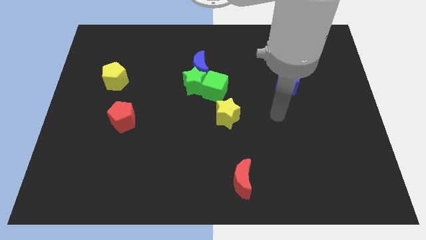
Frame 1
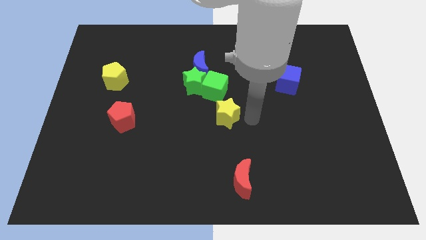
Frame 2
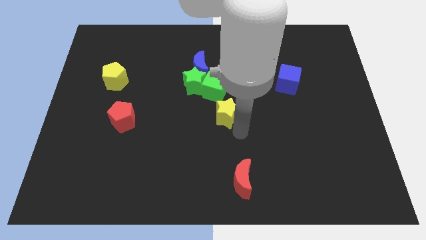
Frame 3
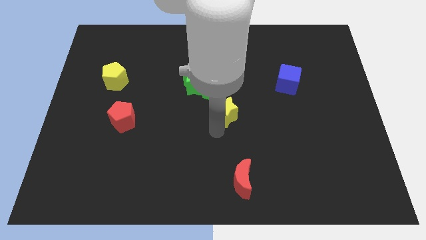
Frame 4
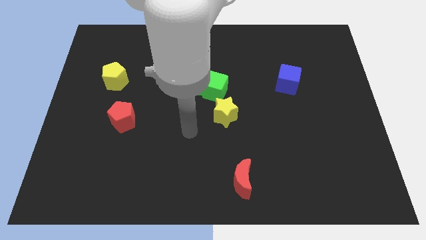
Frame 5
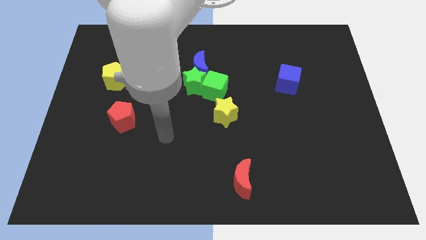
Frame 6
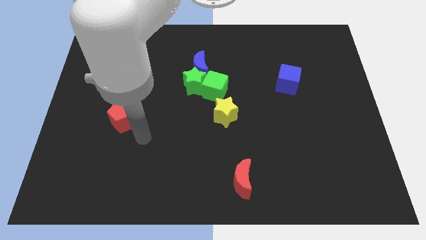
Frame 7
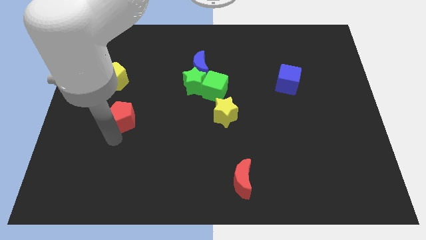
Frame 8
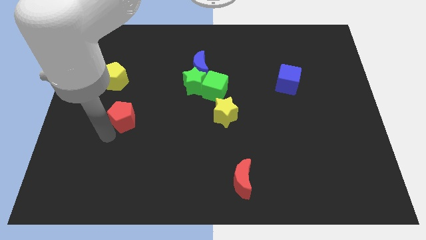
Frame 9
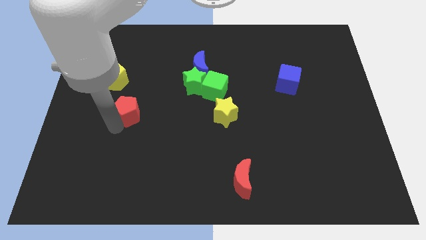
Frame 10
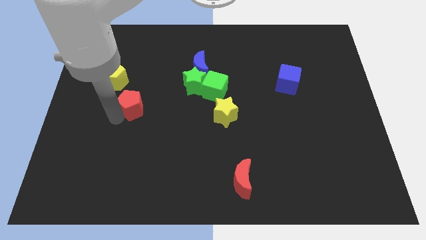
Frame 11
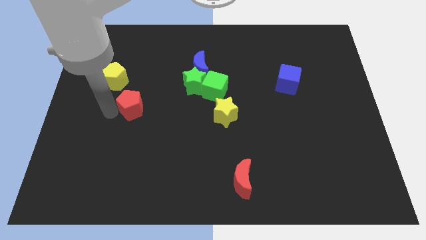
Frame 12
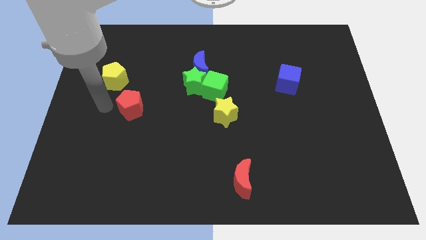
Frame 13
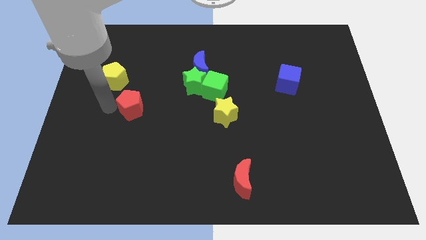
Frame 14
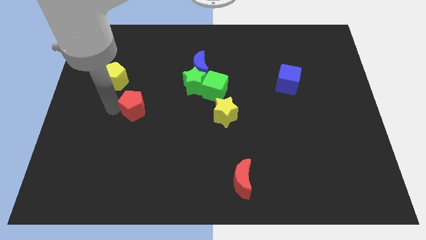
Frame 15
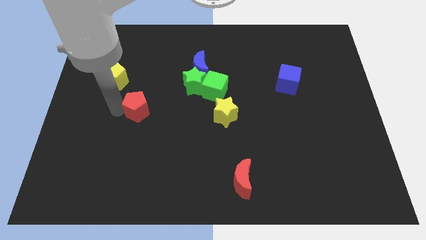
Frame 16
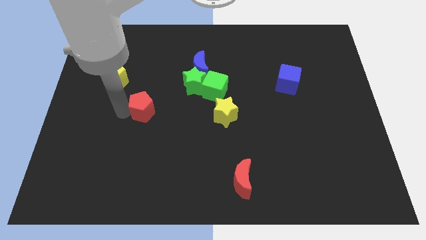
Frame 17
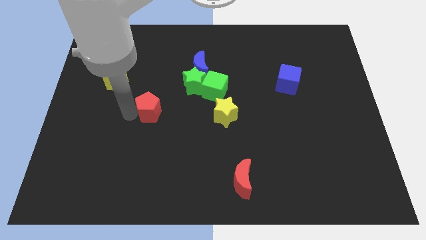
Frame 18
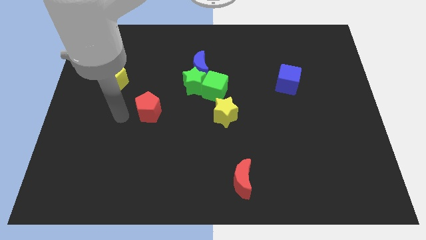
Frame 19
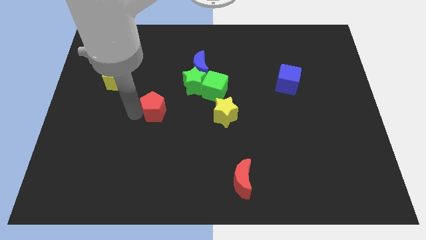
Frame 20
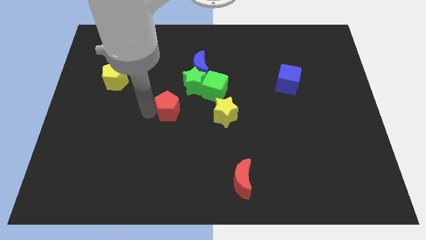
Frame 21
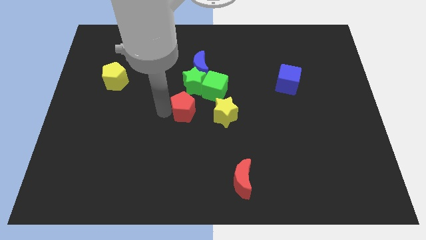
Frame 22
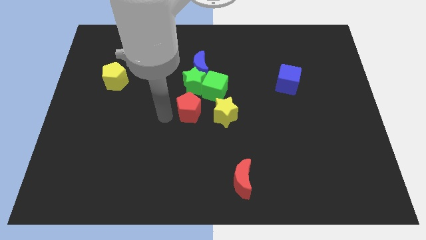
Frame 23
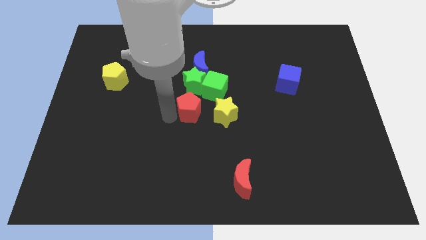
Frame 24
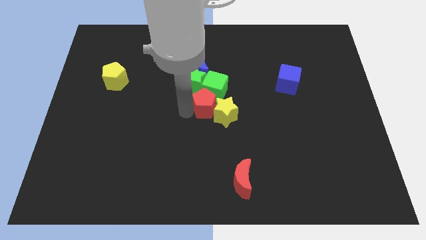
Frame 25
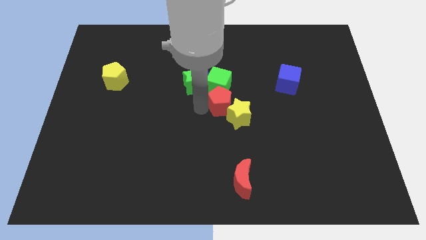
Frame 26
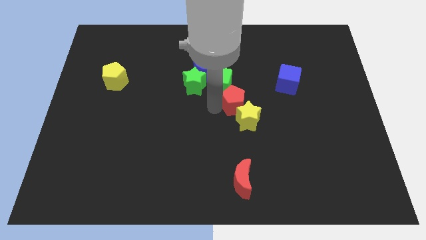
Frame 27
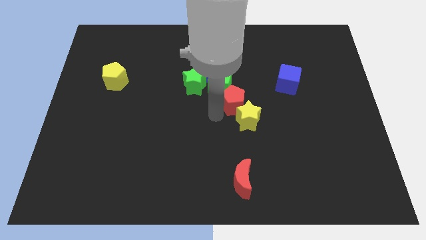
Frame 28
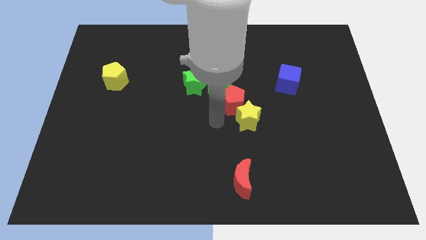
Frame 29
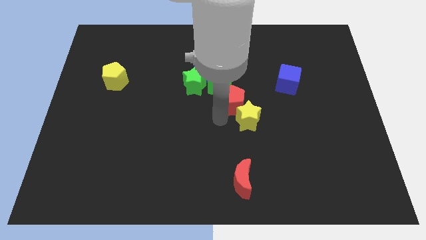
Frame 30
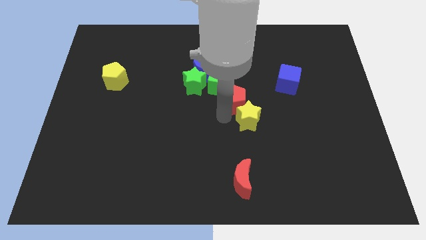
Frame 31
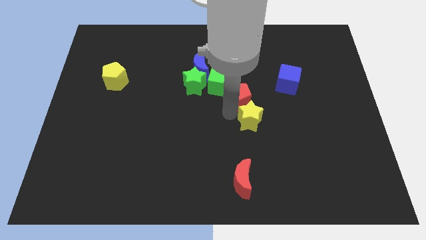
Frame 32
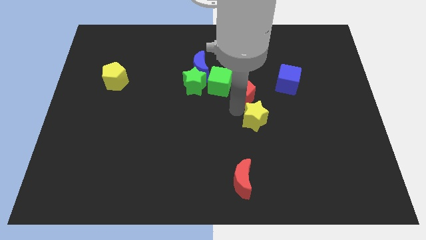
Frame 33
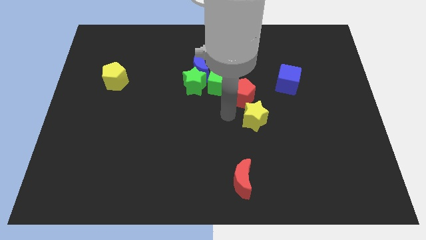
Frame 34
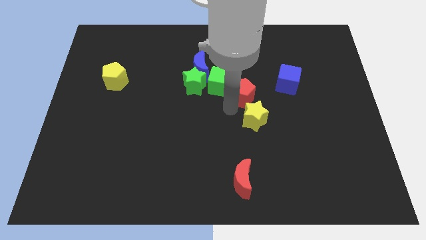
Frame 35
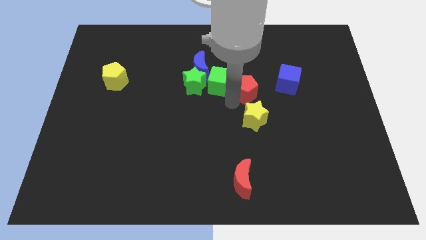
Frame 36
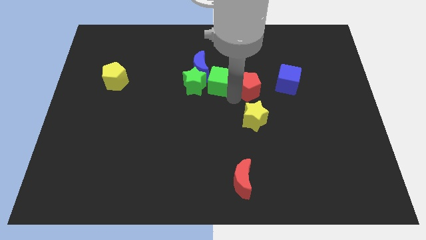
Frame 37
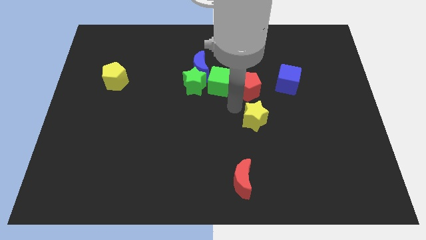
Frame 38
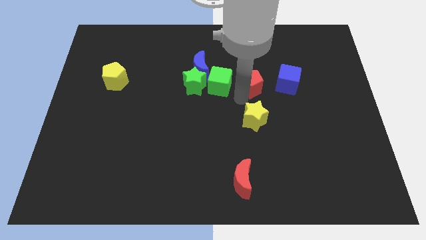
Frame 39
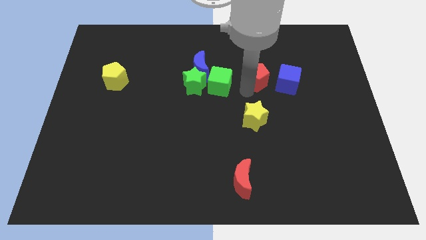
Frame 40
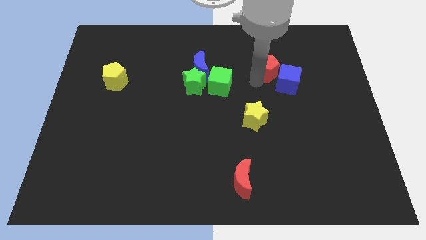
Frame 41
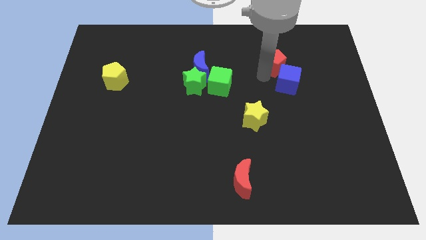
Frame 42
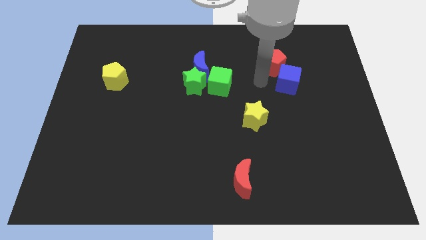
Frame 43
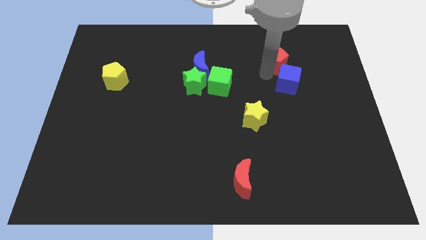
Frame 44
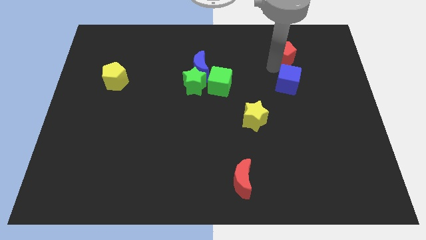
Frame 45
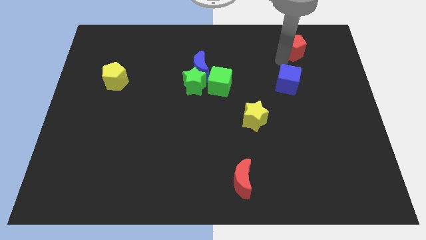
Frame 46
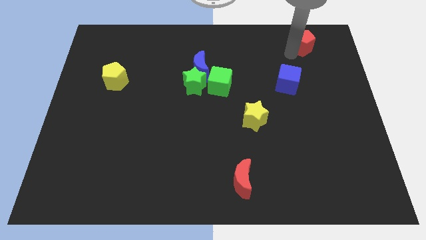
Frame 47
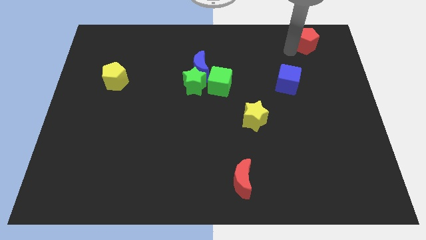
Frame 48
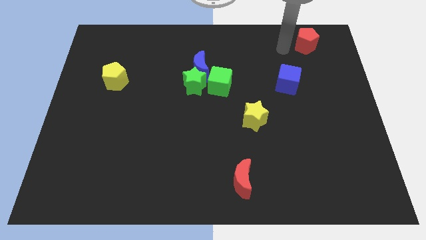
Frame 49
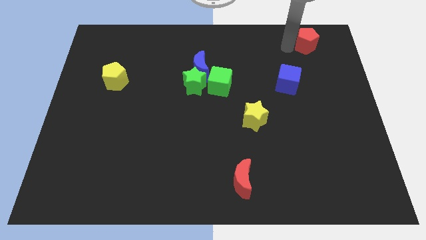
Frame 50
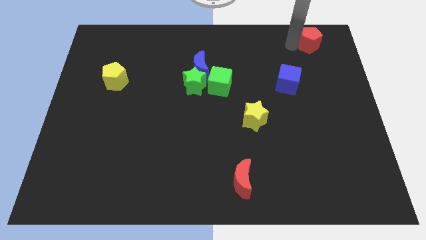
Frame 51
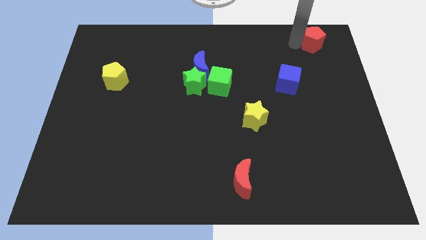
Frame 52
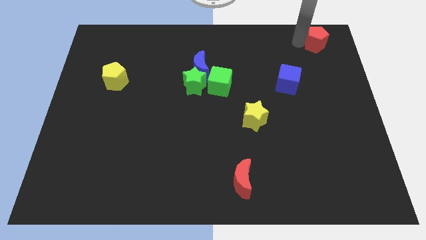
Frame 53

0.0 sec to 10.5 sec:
push the red pentagon to the top right corner
